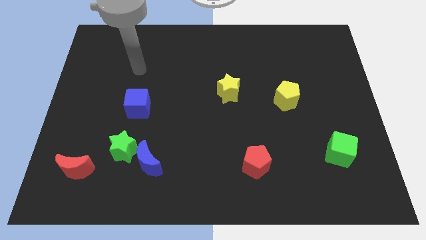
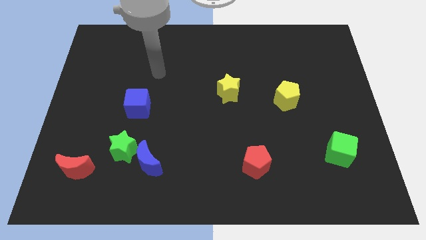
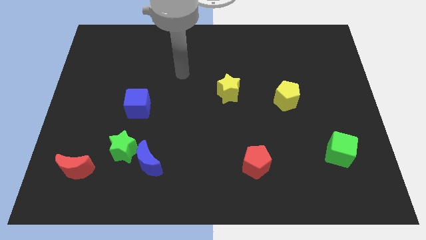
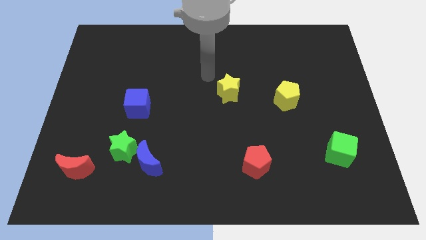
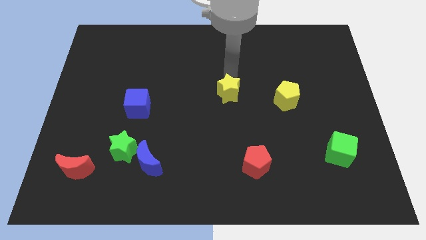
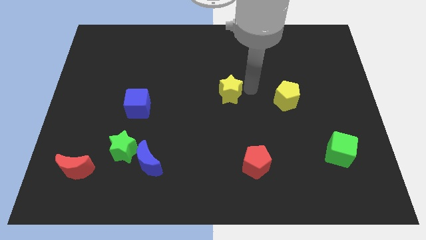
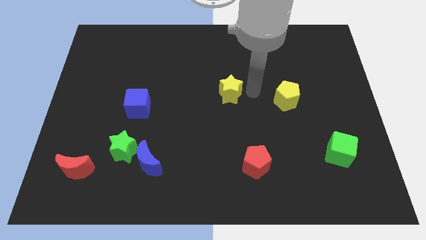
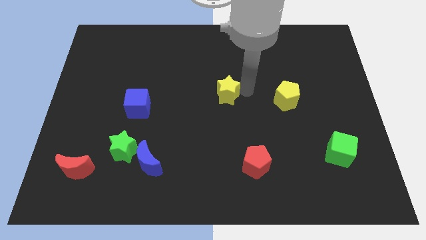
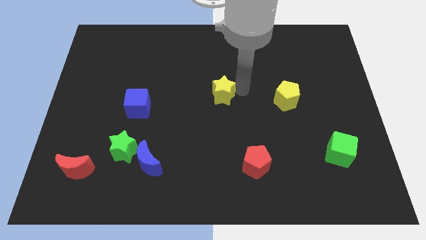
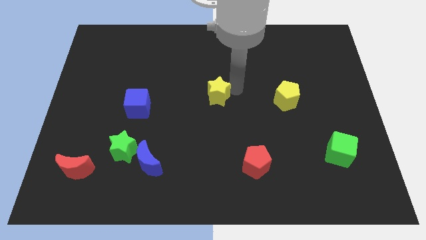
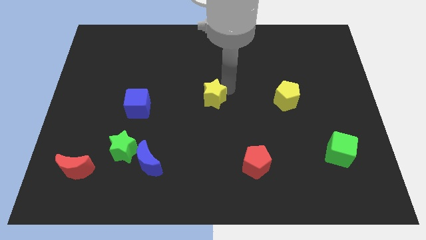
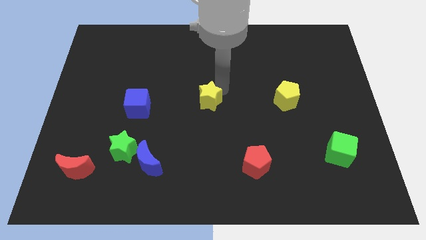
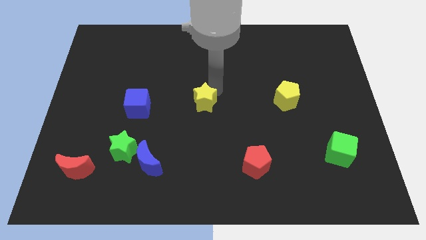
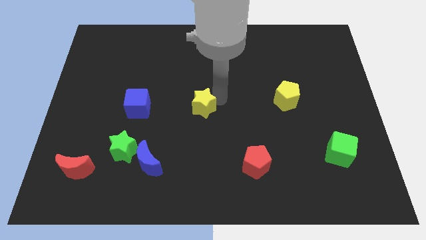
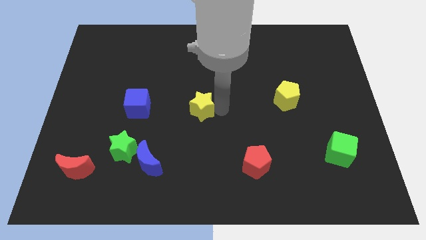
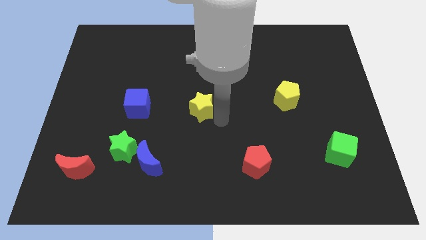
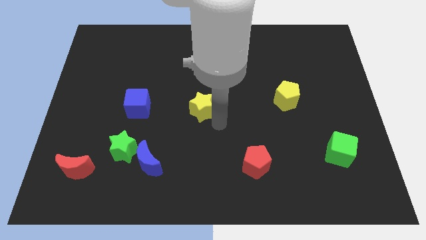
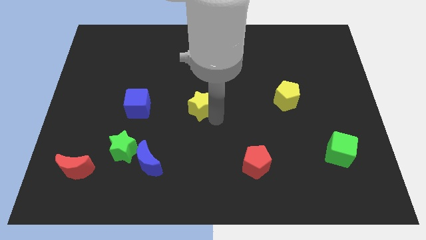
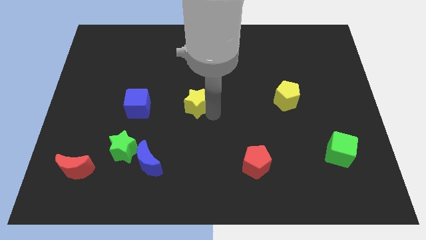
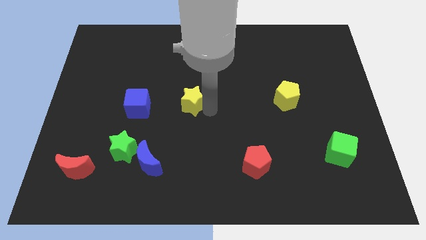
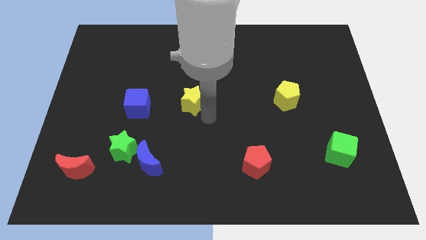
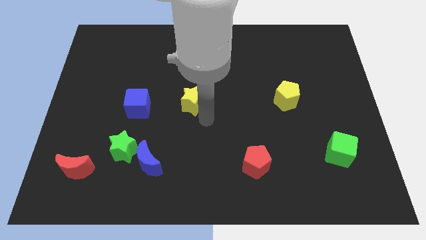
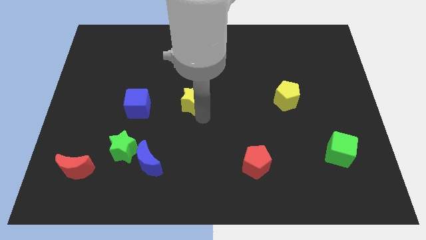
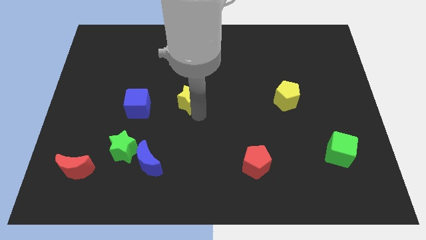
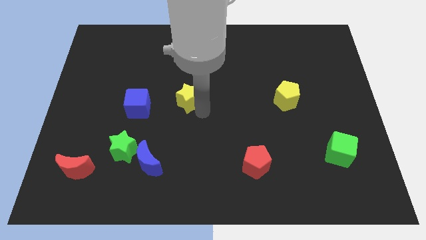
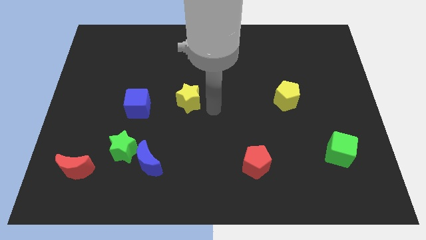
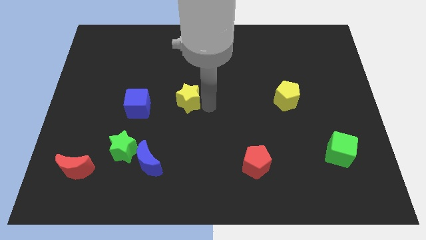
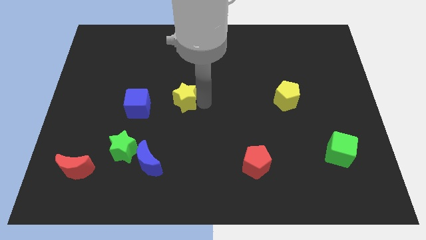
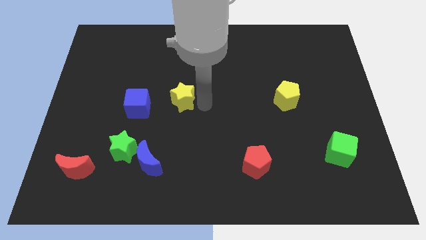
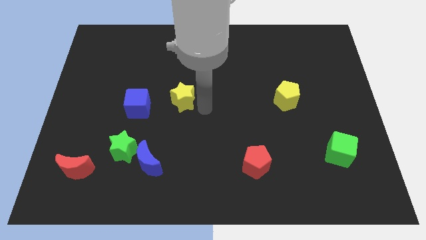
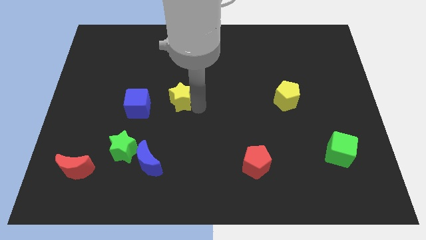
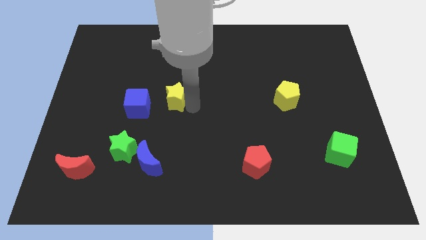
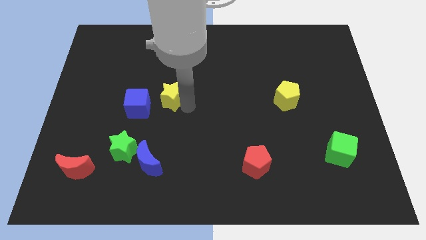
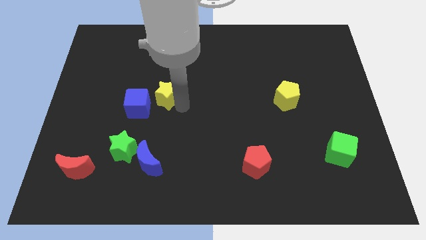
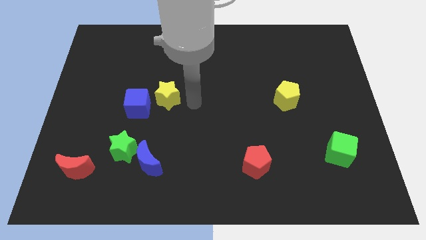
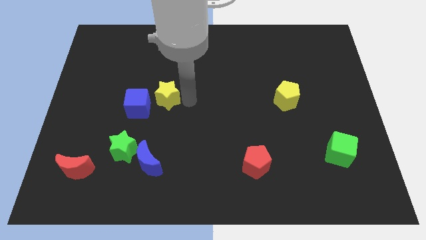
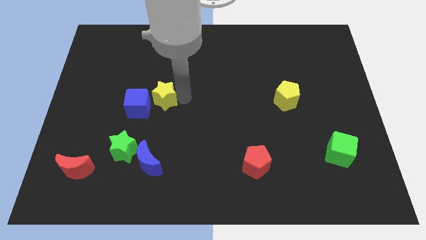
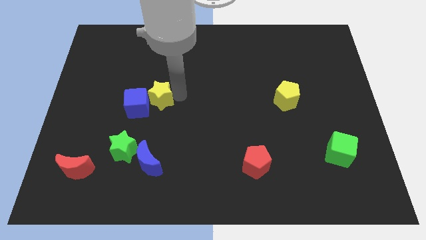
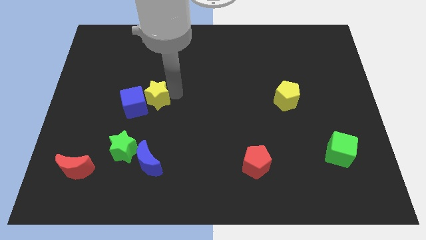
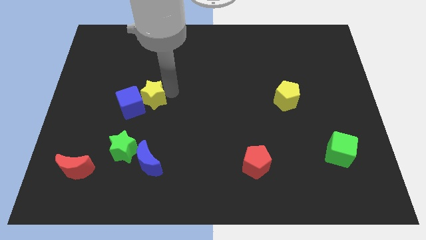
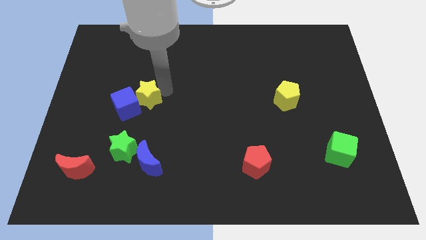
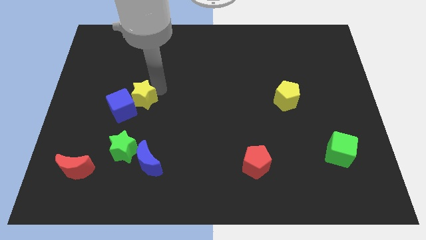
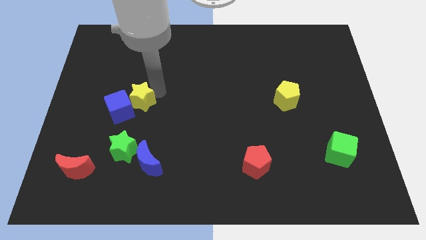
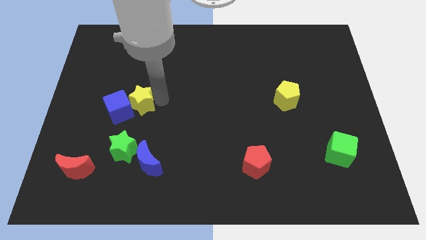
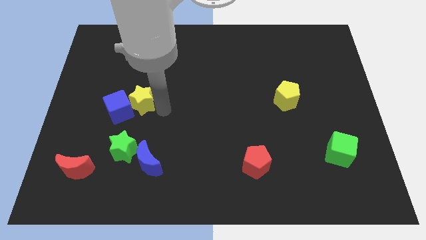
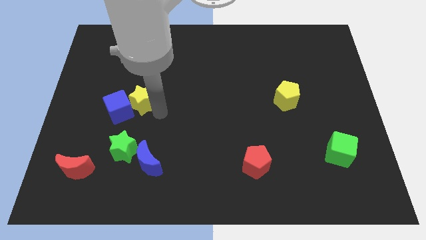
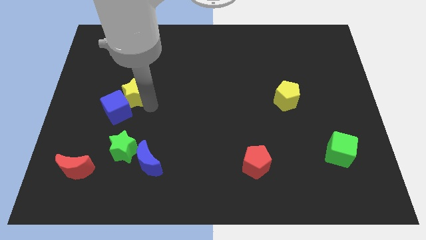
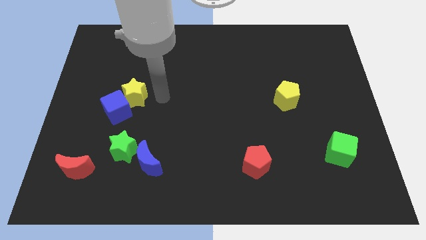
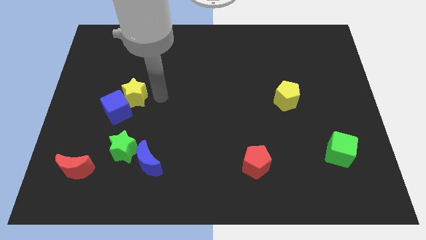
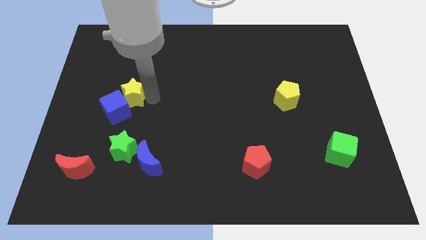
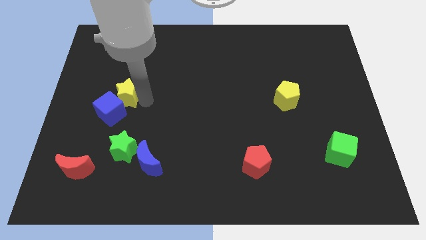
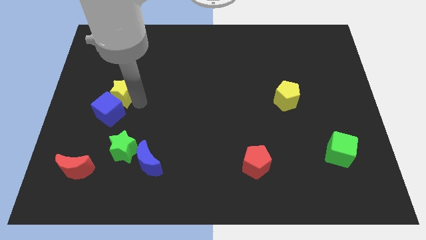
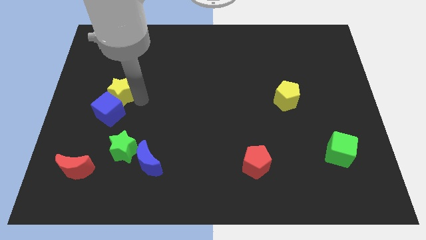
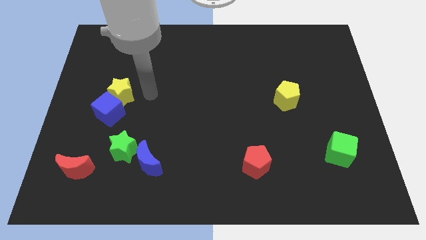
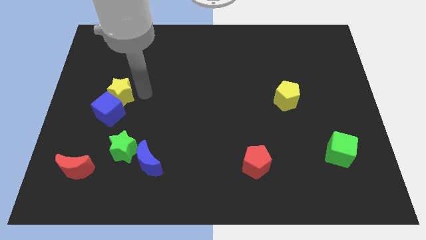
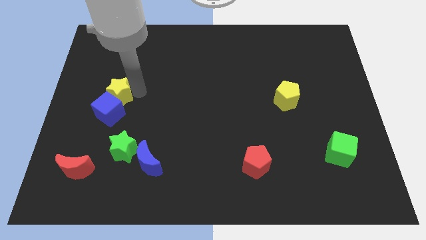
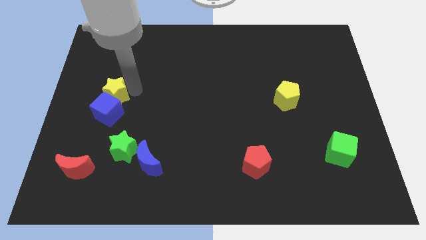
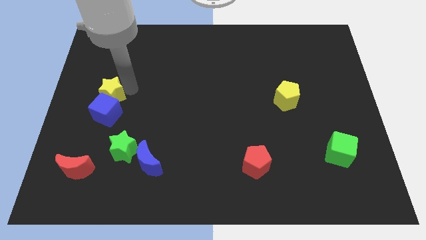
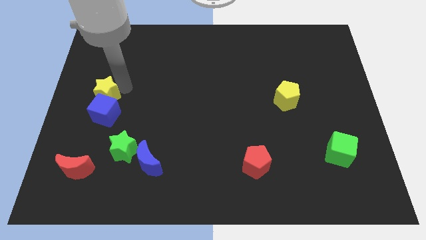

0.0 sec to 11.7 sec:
move the yellow star to the center left

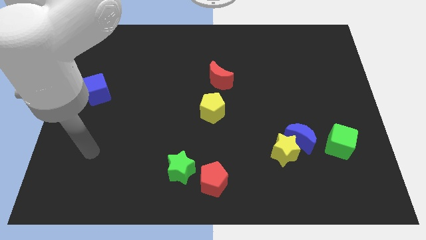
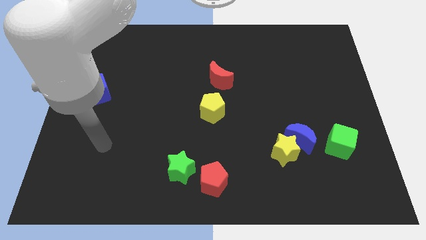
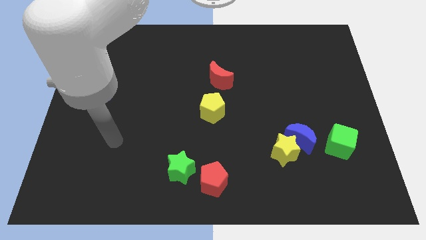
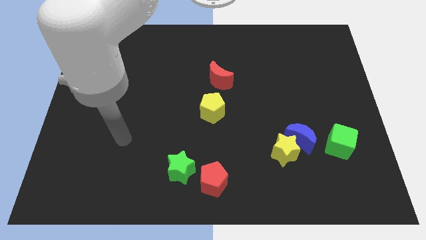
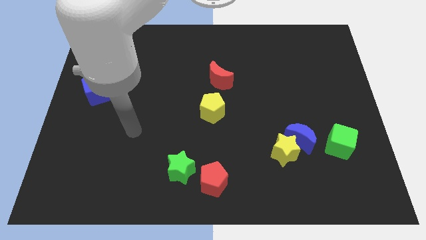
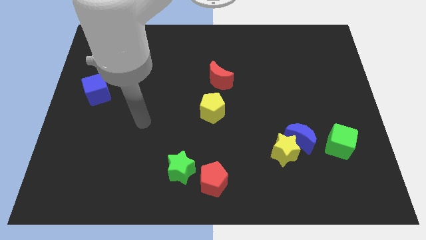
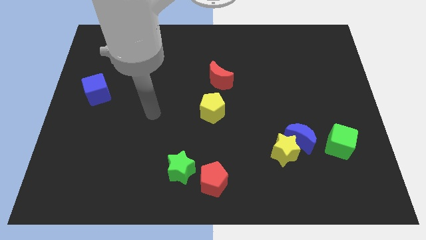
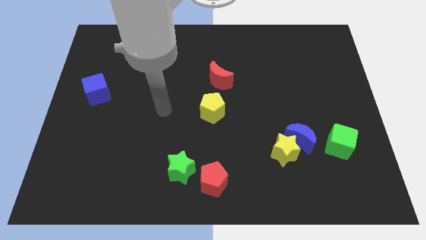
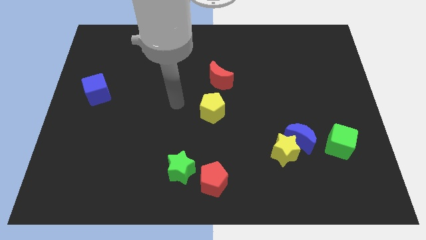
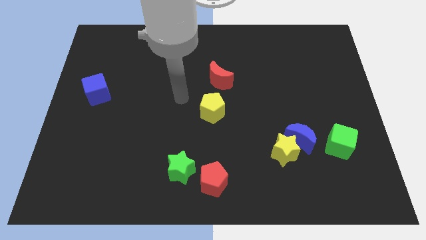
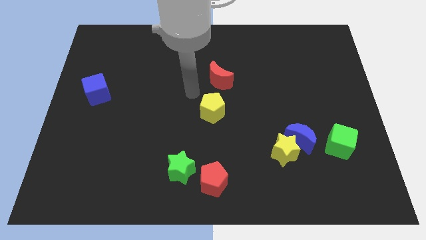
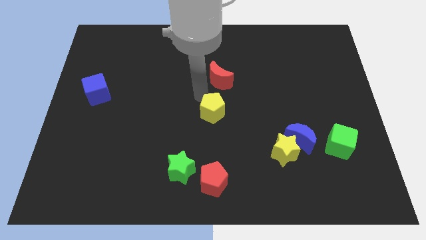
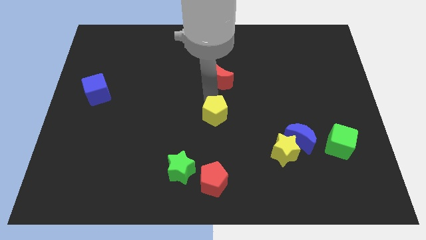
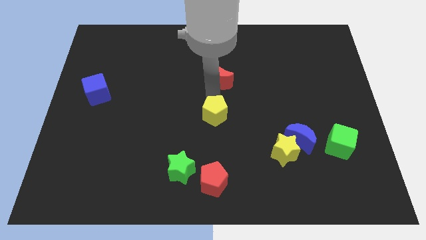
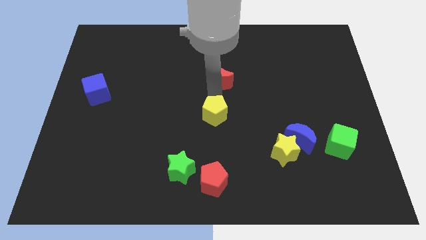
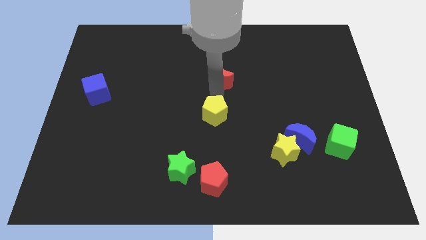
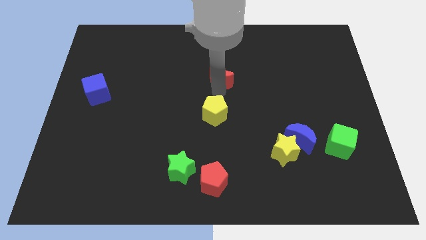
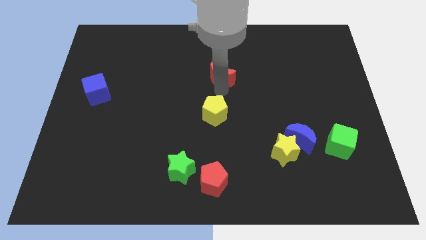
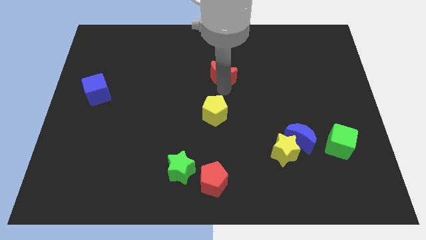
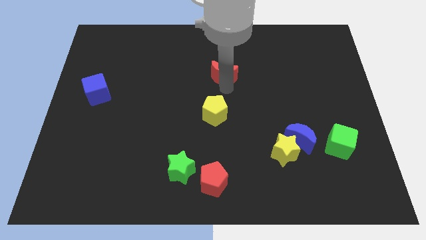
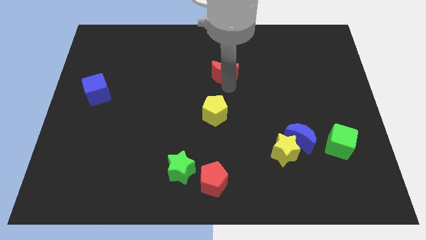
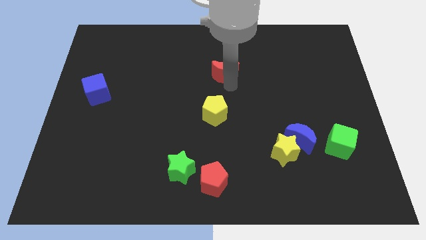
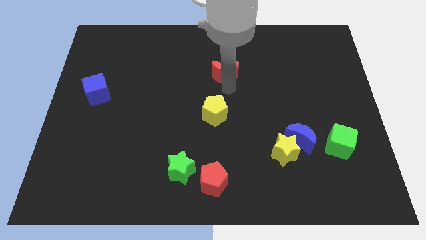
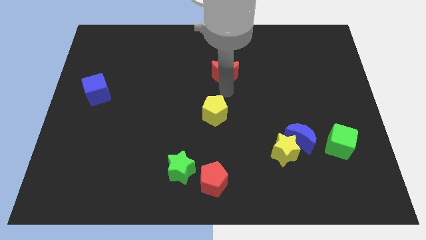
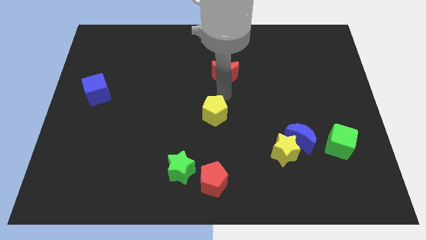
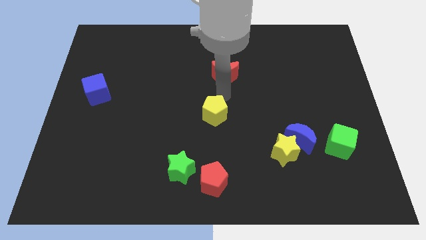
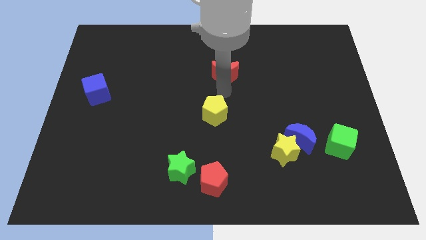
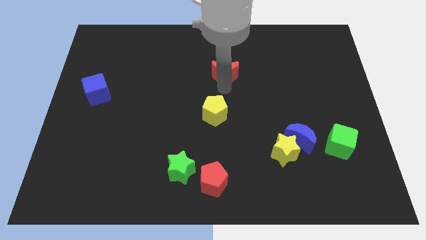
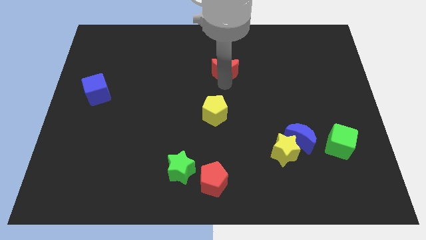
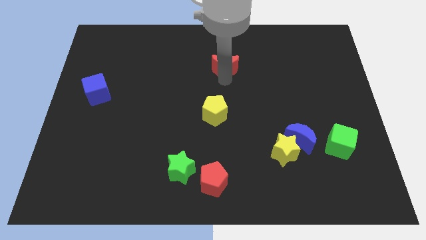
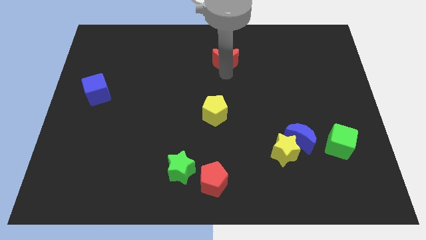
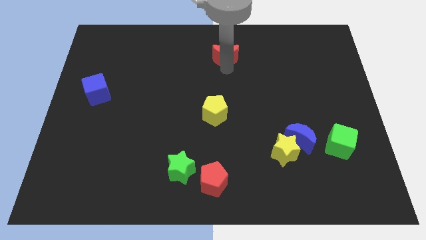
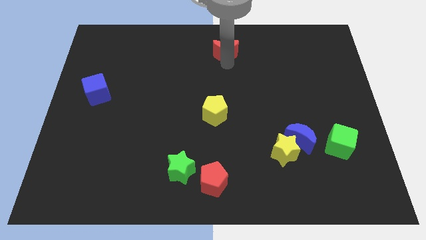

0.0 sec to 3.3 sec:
slide the red moon to the top
